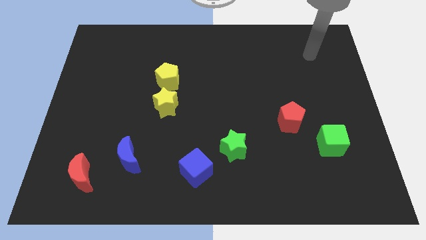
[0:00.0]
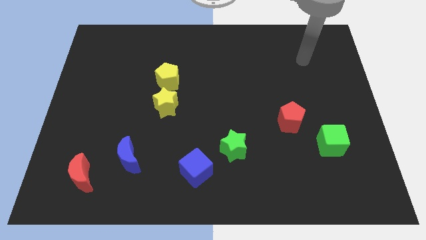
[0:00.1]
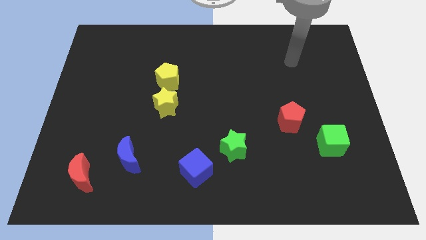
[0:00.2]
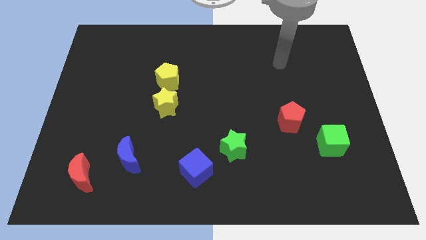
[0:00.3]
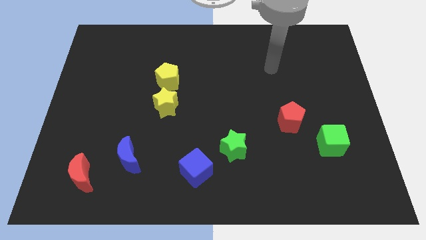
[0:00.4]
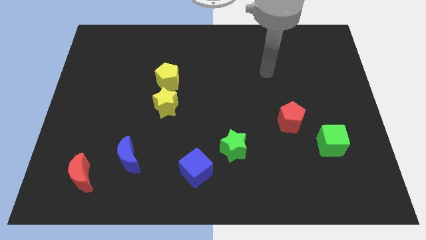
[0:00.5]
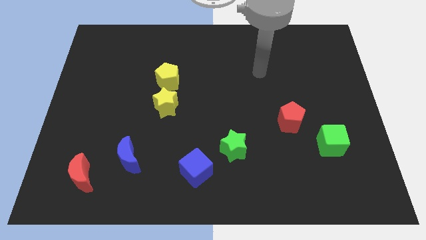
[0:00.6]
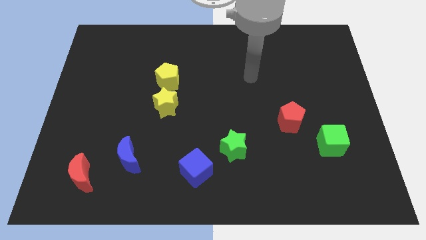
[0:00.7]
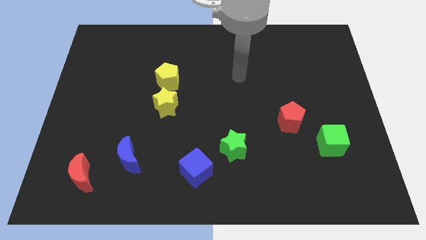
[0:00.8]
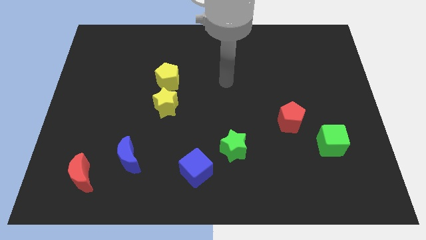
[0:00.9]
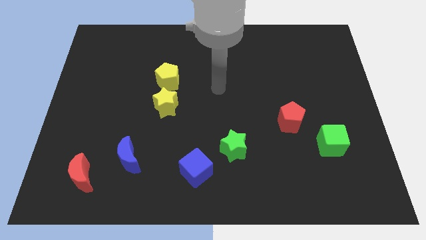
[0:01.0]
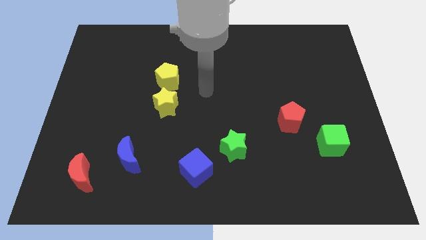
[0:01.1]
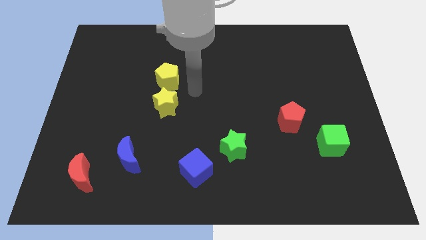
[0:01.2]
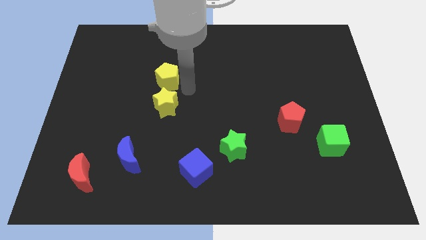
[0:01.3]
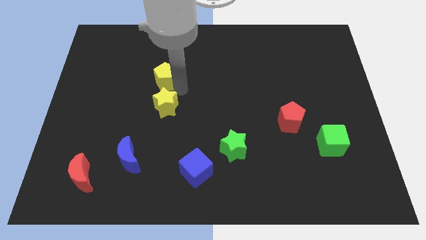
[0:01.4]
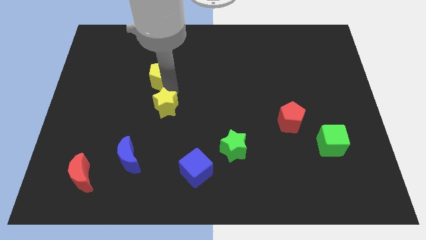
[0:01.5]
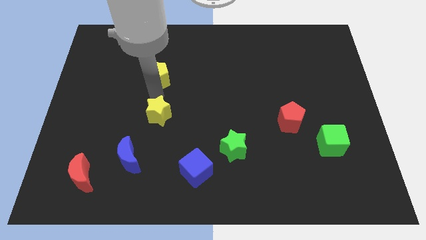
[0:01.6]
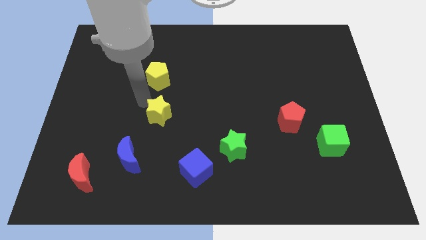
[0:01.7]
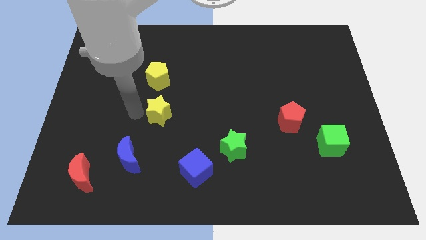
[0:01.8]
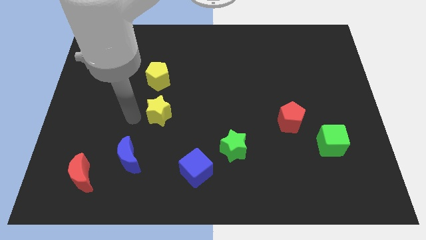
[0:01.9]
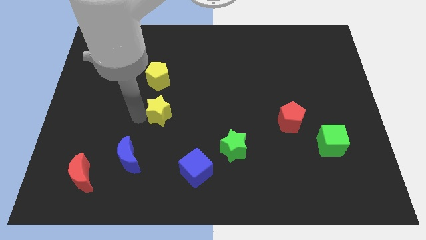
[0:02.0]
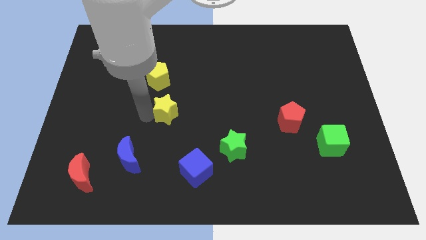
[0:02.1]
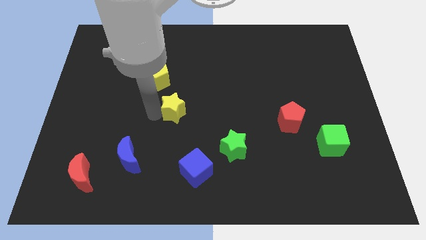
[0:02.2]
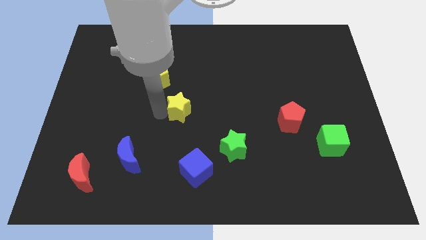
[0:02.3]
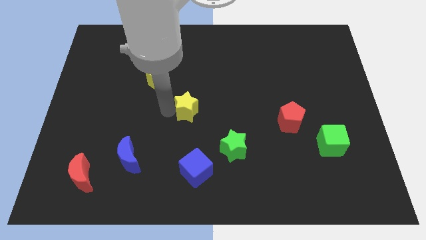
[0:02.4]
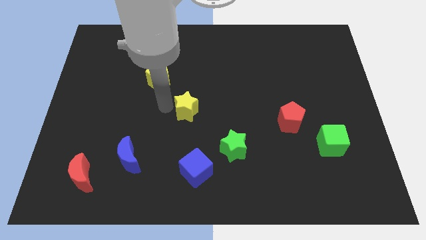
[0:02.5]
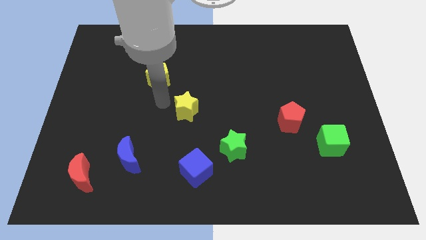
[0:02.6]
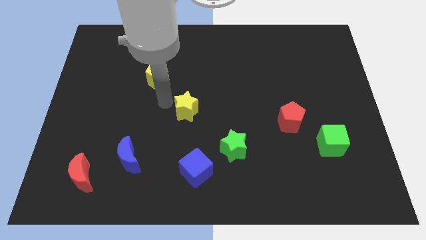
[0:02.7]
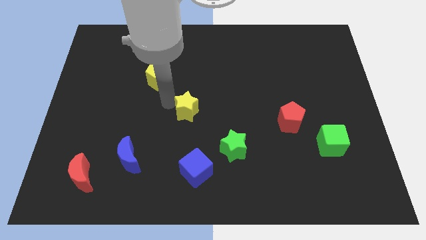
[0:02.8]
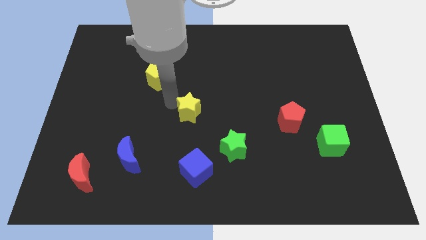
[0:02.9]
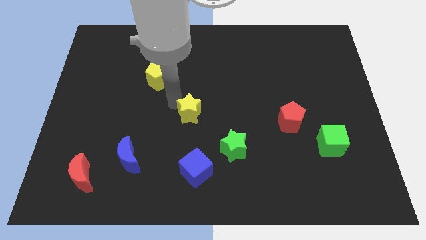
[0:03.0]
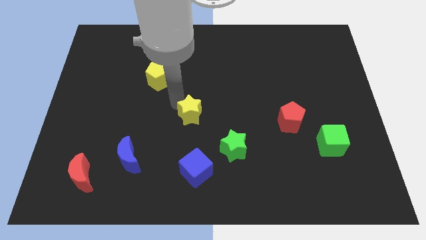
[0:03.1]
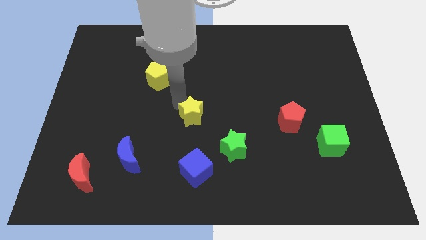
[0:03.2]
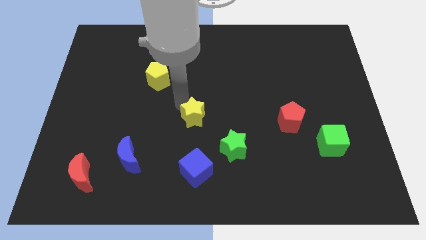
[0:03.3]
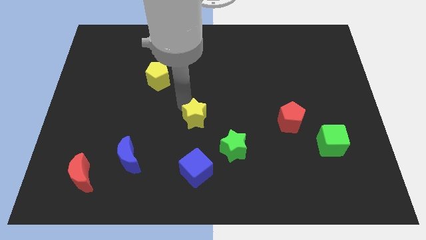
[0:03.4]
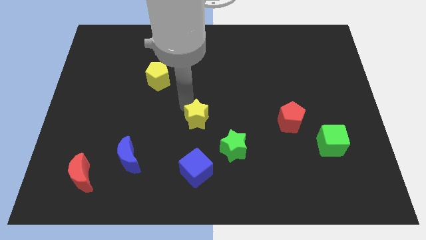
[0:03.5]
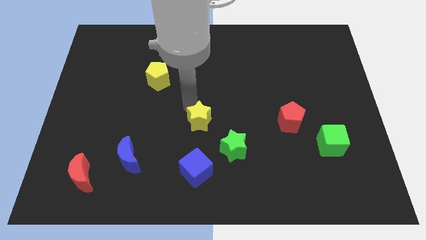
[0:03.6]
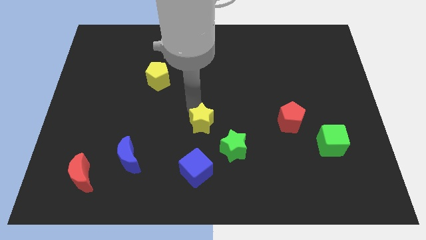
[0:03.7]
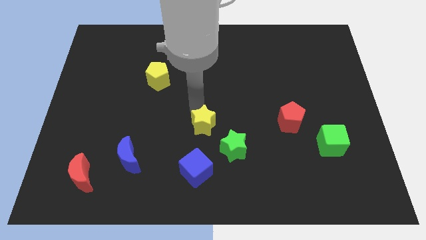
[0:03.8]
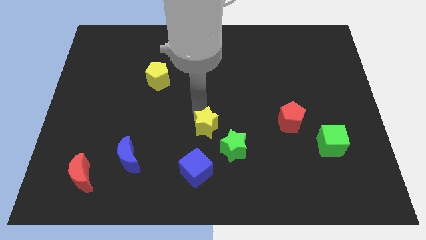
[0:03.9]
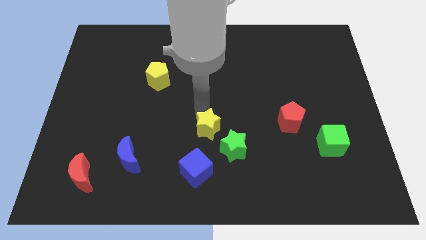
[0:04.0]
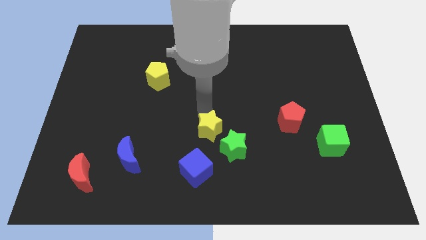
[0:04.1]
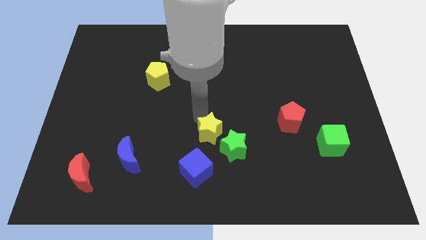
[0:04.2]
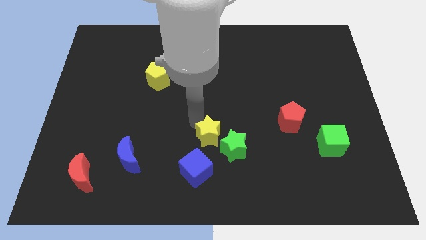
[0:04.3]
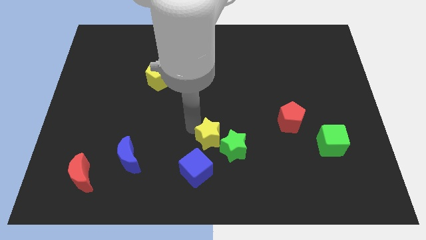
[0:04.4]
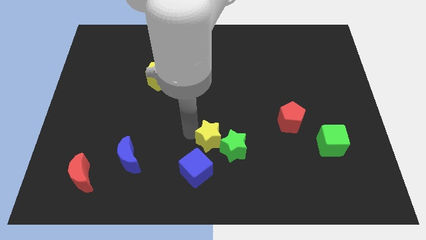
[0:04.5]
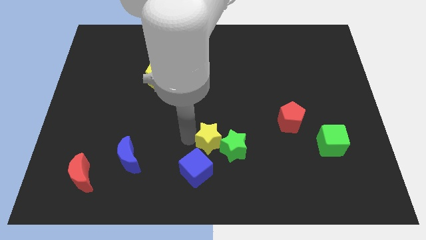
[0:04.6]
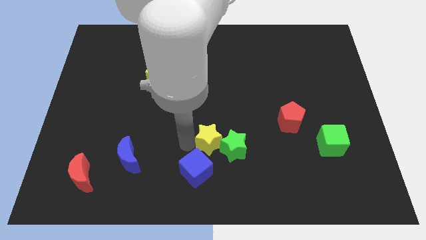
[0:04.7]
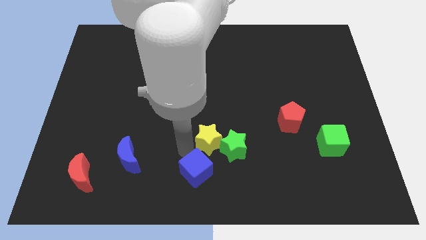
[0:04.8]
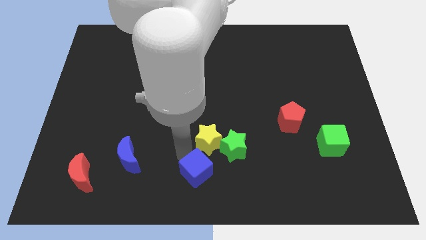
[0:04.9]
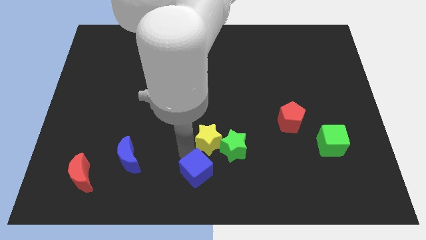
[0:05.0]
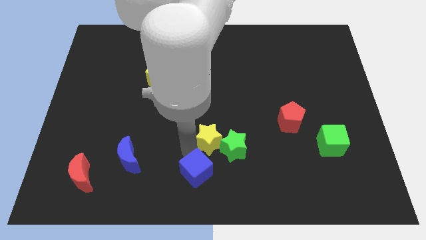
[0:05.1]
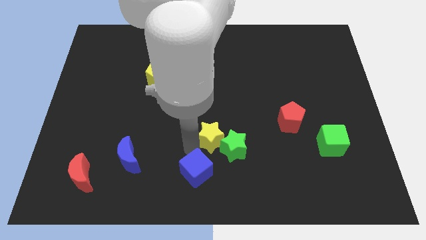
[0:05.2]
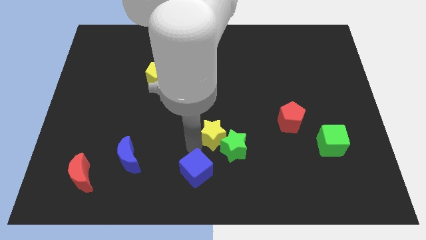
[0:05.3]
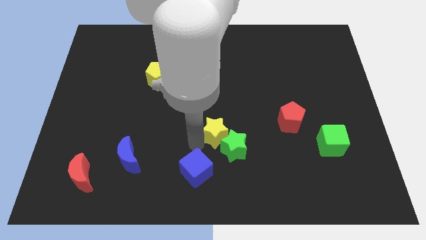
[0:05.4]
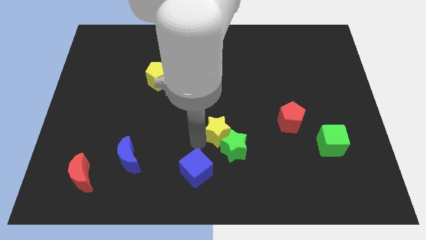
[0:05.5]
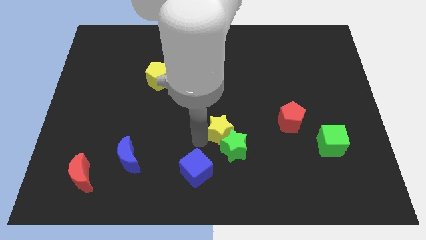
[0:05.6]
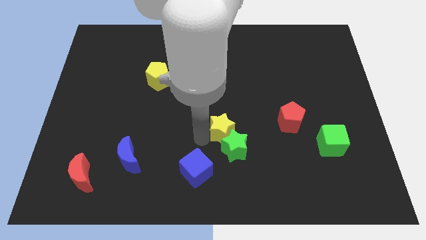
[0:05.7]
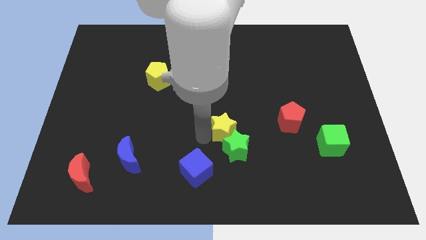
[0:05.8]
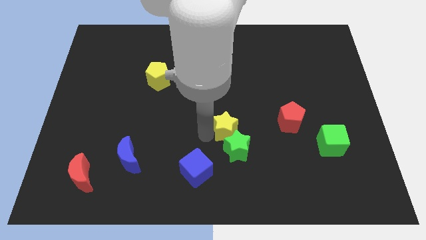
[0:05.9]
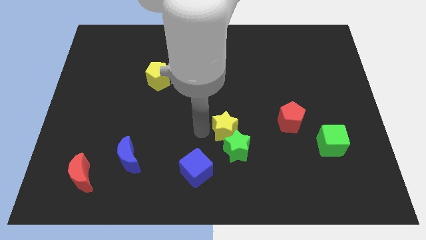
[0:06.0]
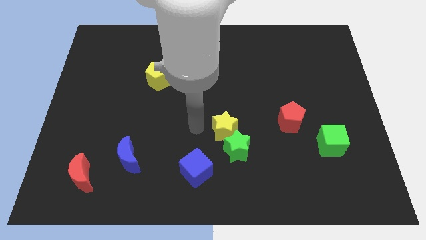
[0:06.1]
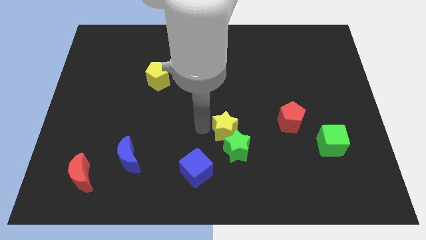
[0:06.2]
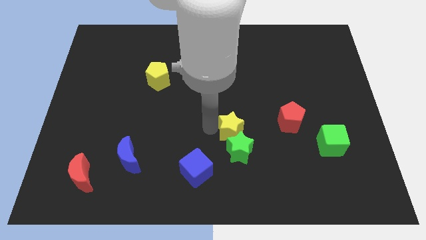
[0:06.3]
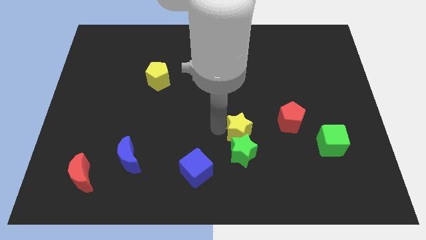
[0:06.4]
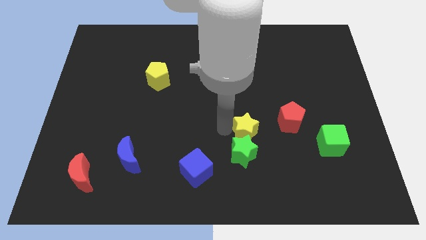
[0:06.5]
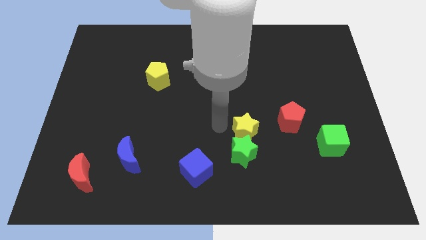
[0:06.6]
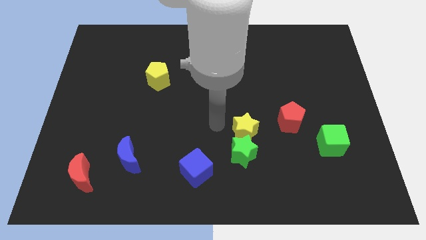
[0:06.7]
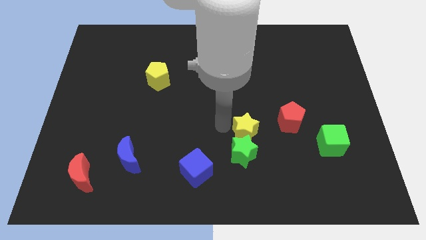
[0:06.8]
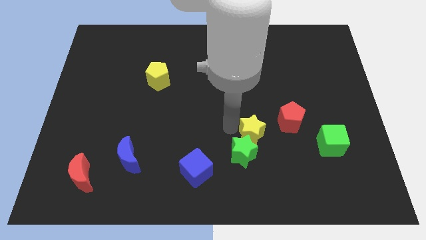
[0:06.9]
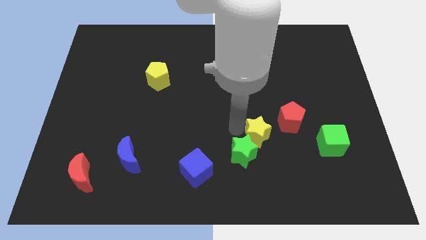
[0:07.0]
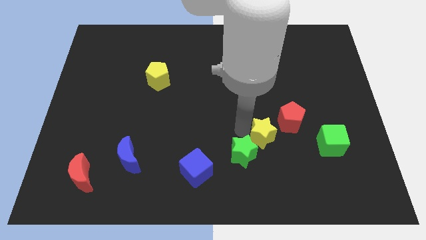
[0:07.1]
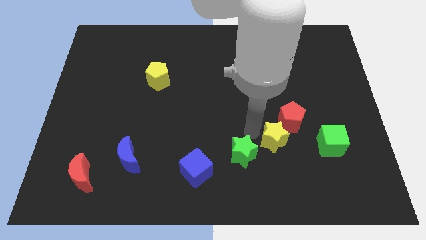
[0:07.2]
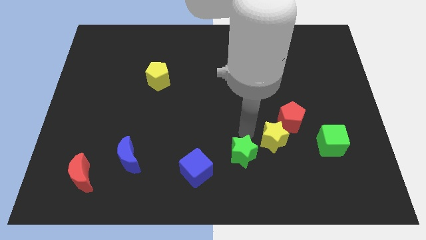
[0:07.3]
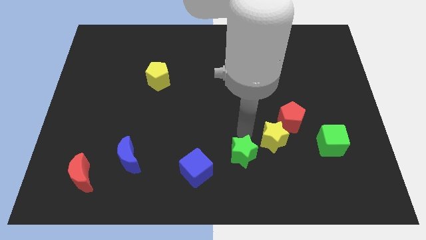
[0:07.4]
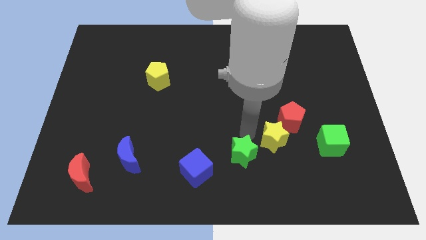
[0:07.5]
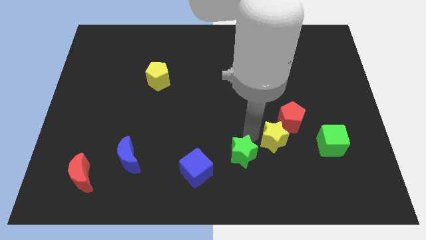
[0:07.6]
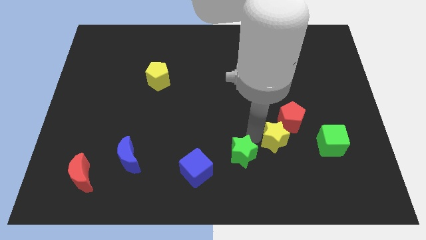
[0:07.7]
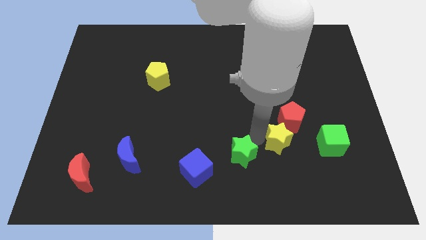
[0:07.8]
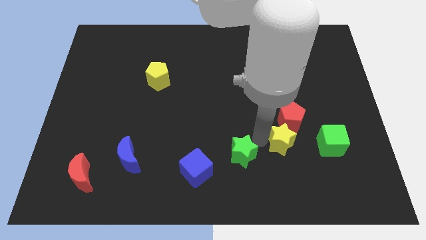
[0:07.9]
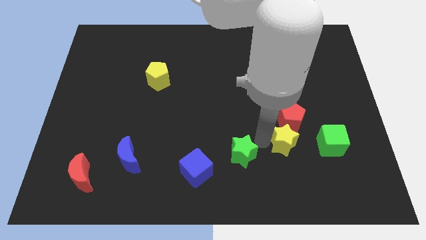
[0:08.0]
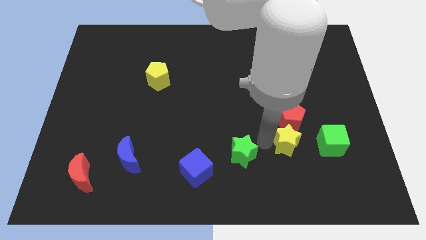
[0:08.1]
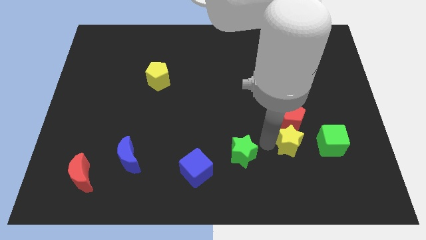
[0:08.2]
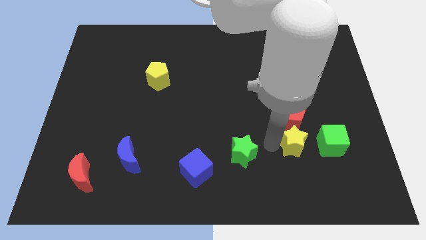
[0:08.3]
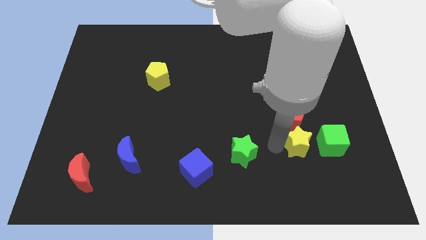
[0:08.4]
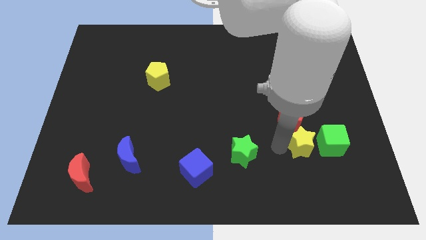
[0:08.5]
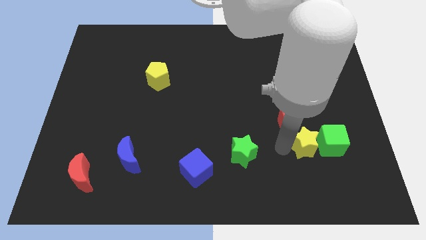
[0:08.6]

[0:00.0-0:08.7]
put the yellow star towards the green cube
